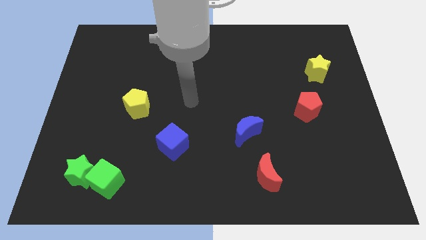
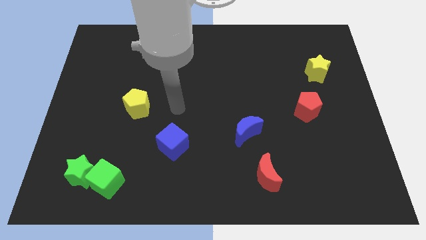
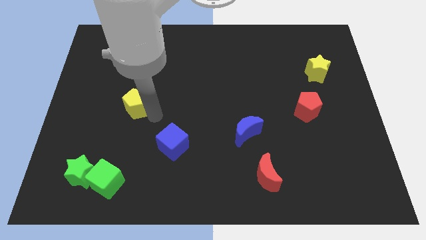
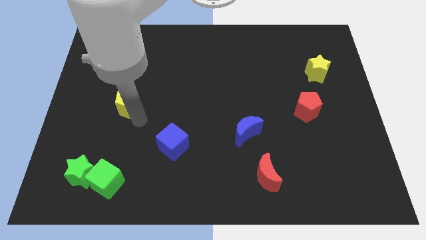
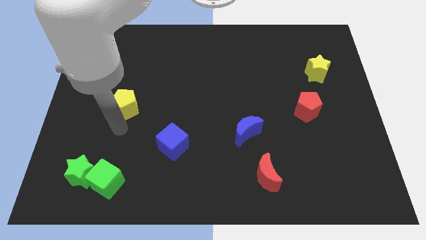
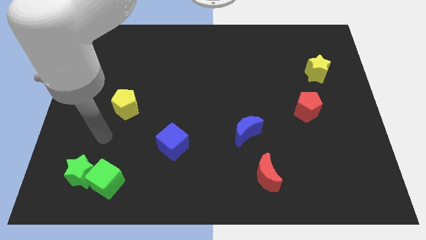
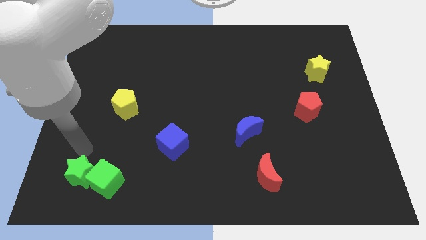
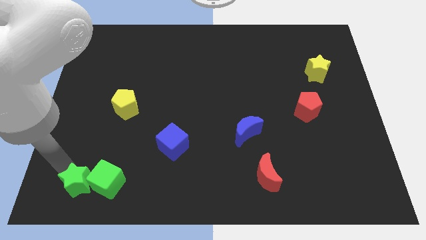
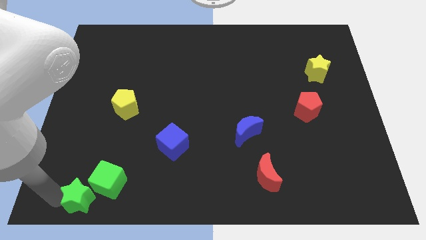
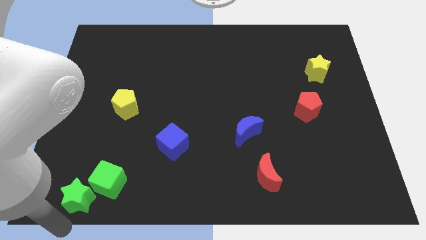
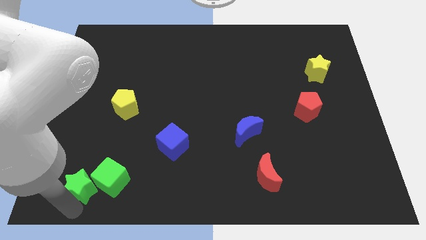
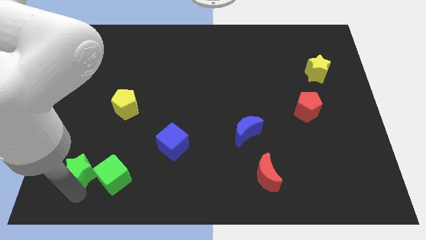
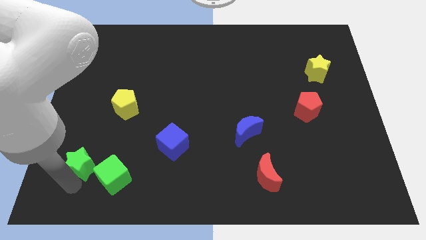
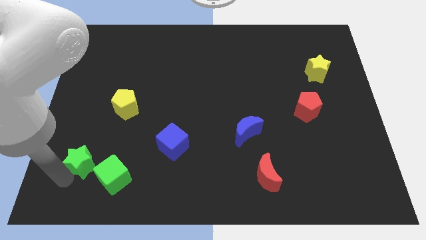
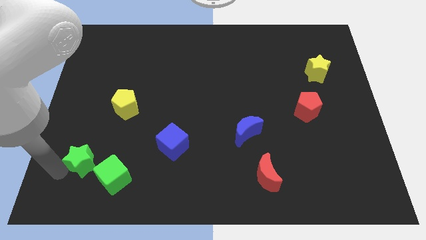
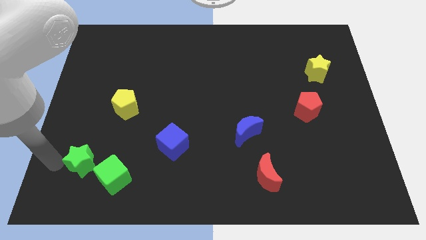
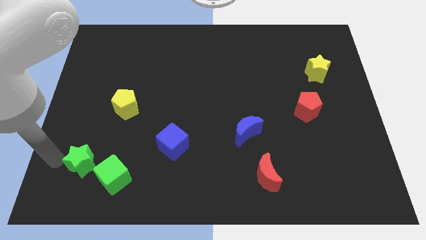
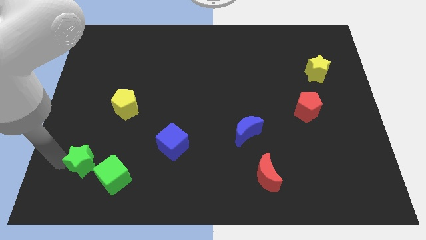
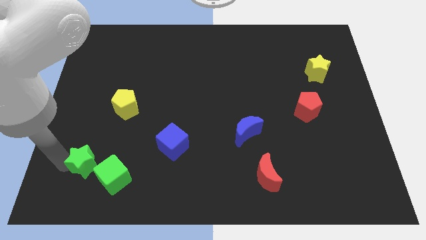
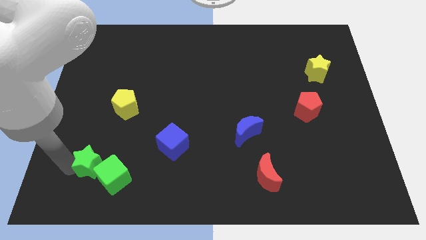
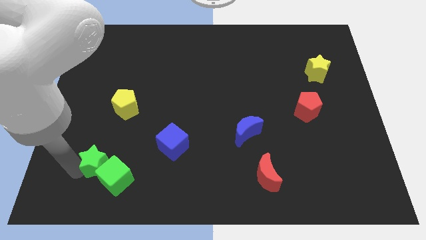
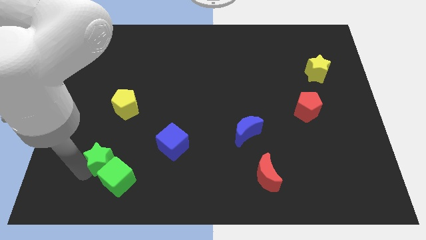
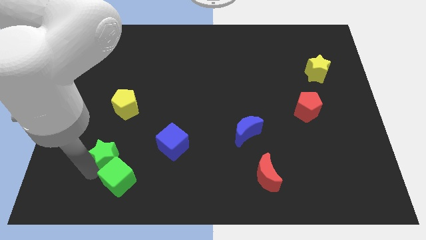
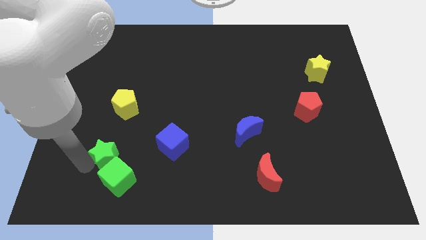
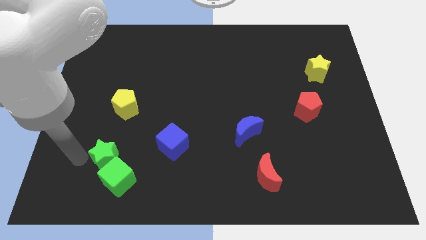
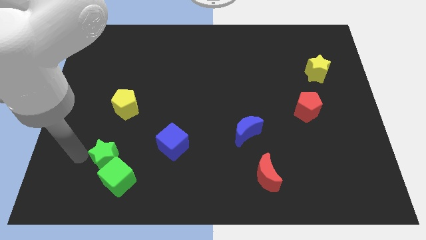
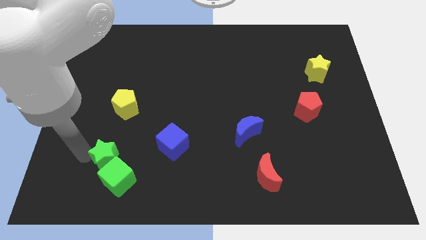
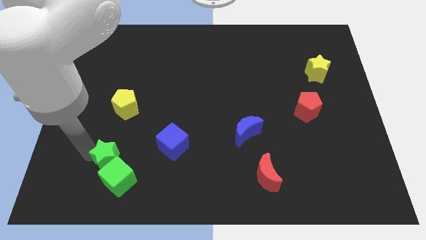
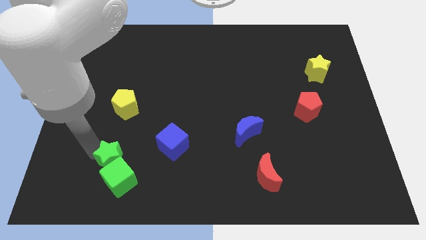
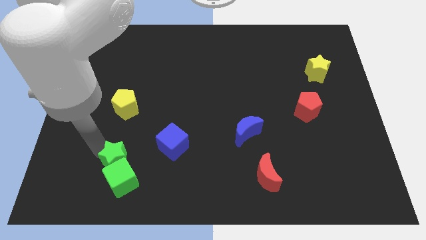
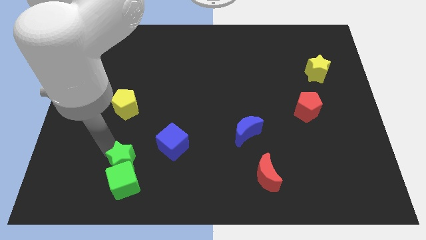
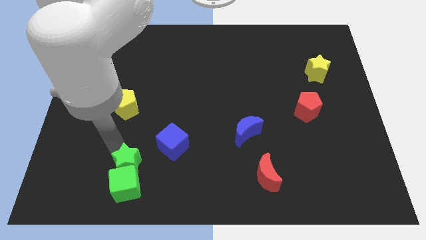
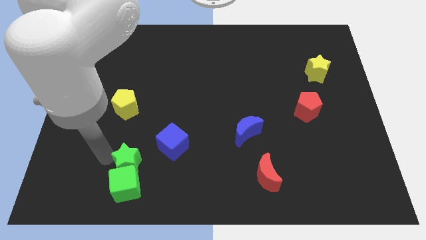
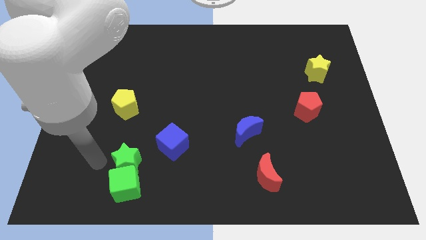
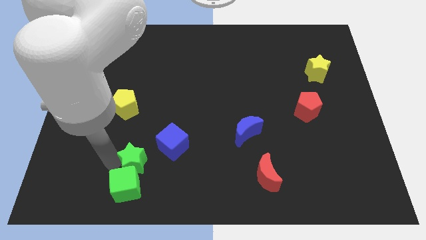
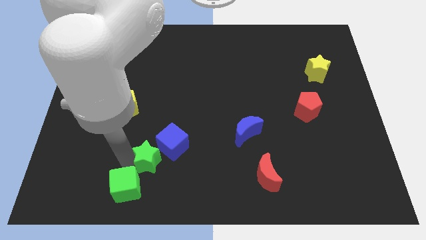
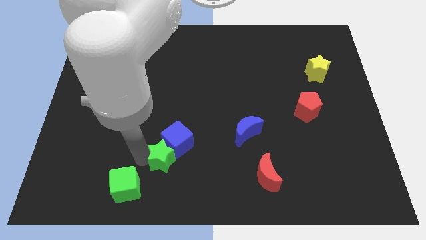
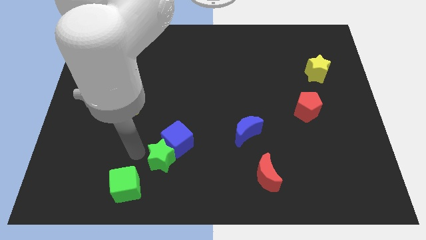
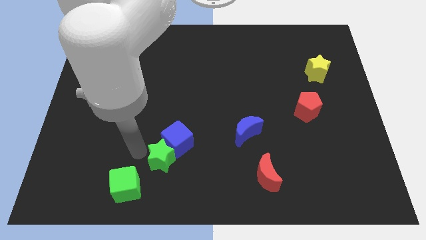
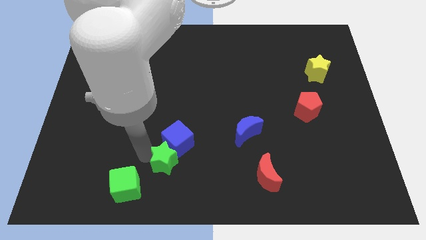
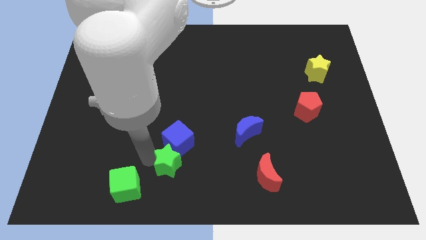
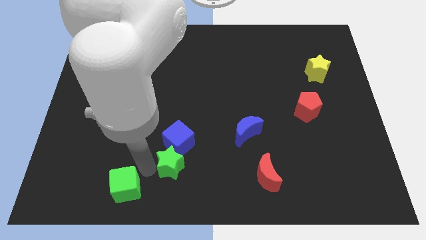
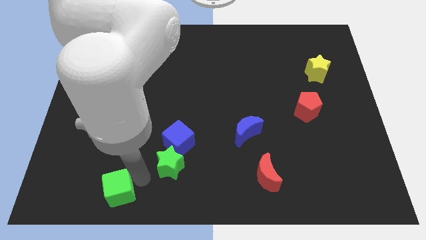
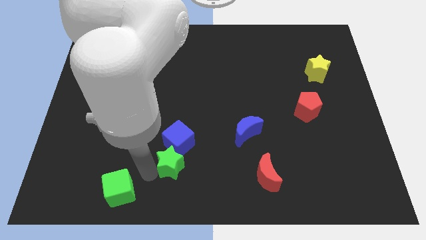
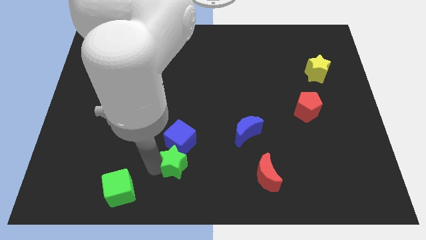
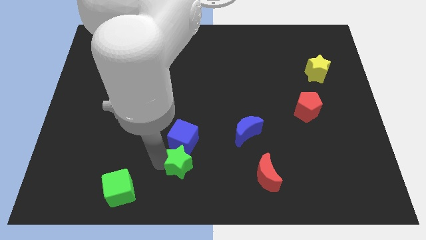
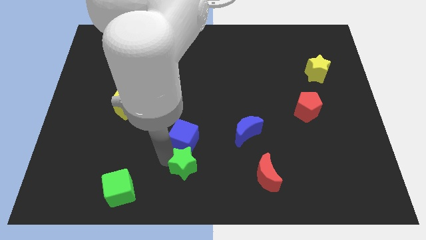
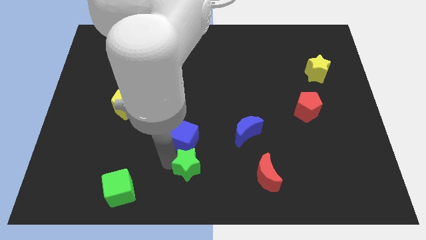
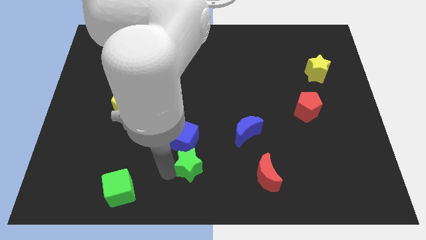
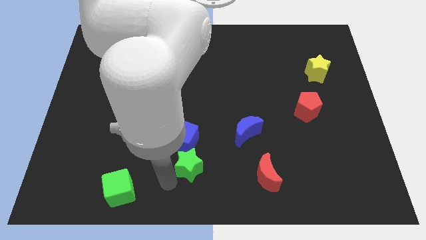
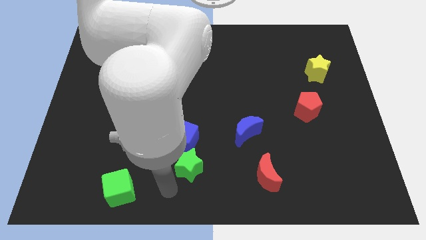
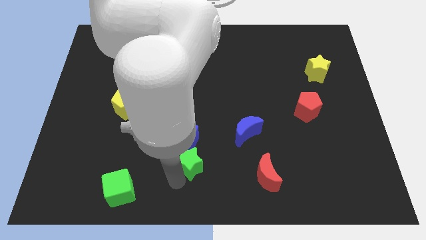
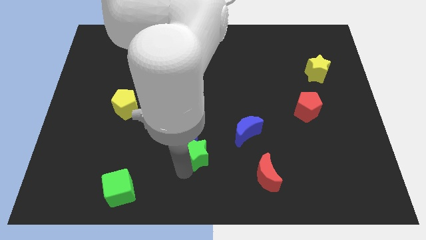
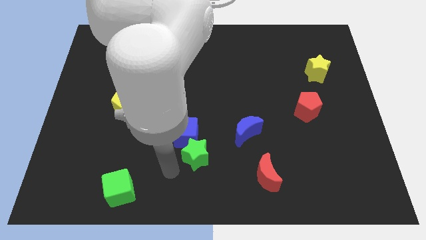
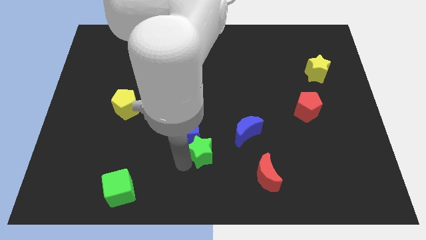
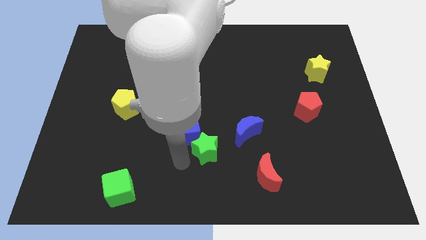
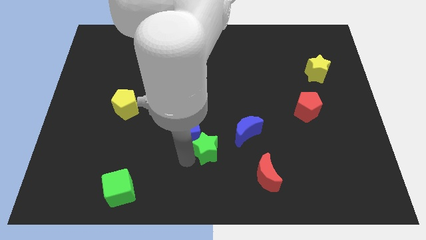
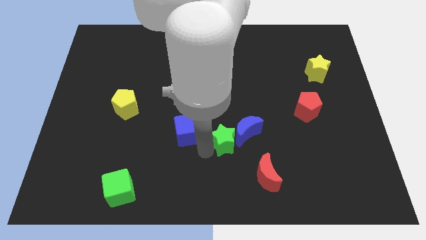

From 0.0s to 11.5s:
move the green star next to the blue moon

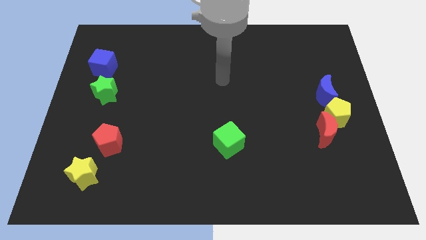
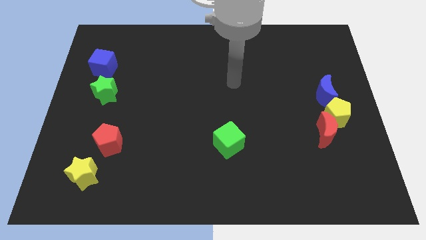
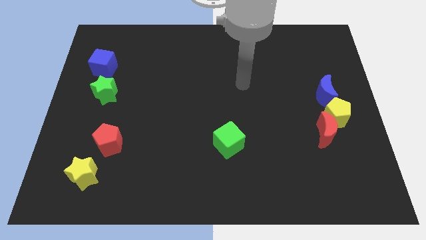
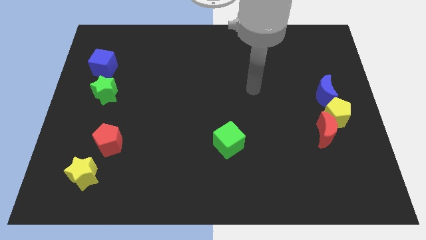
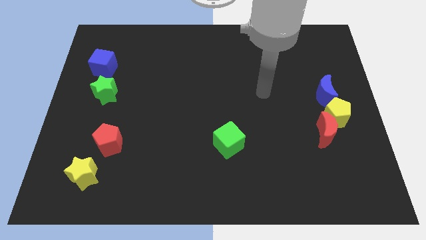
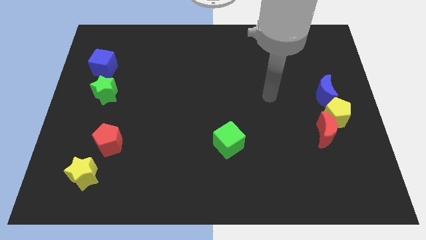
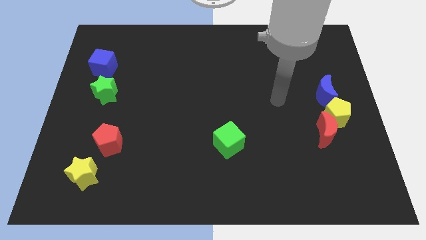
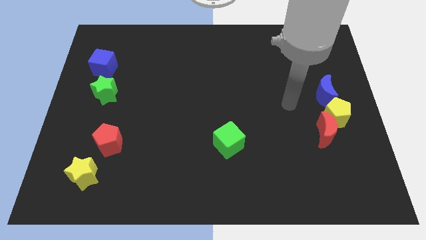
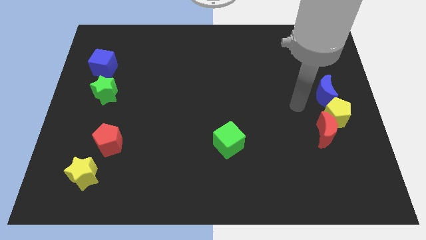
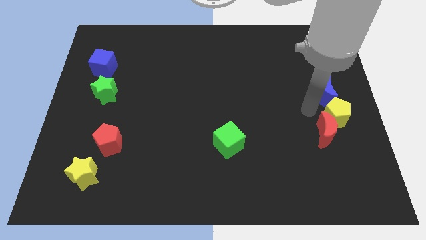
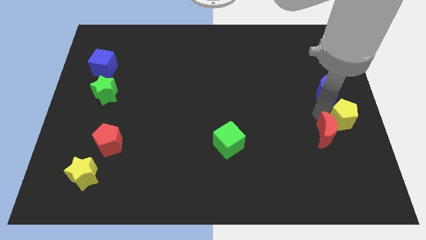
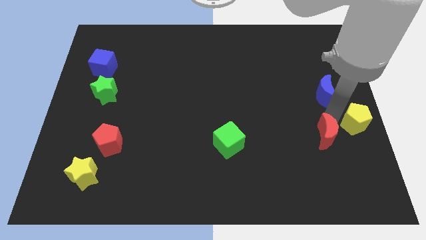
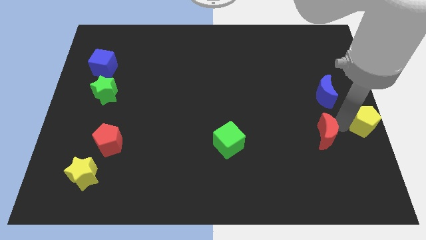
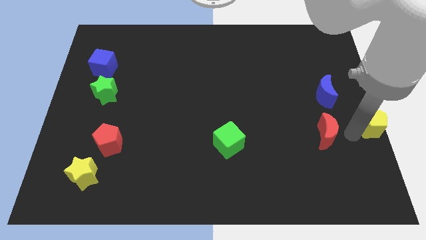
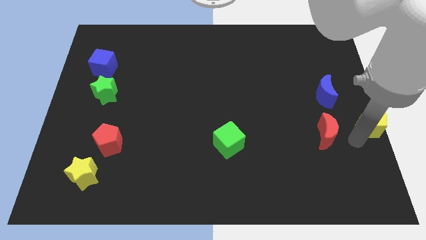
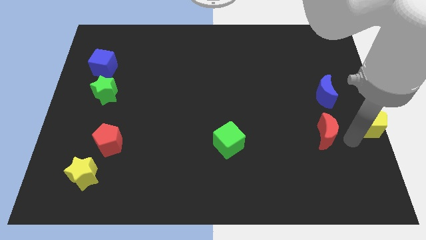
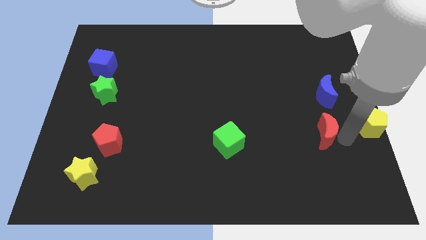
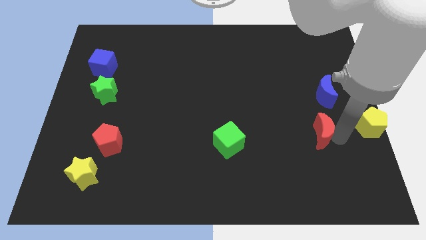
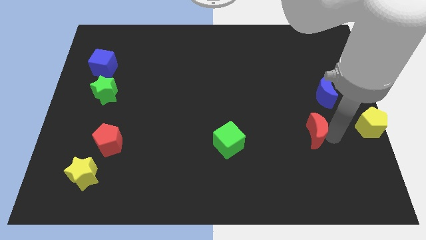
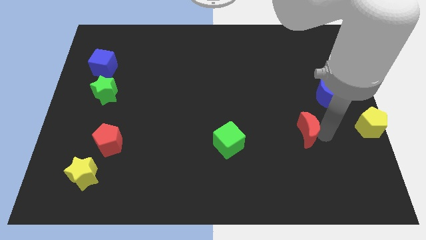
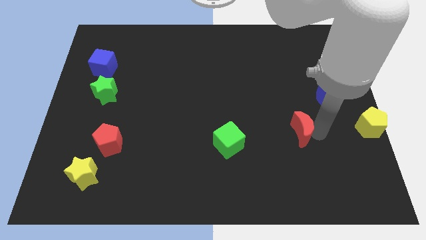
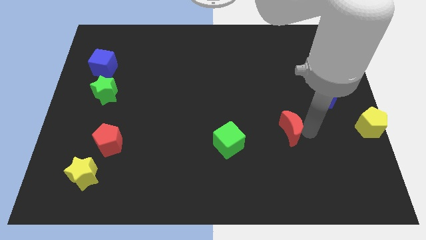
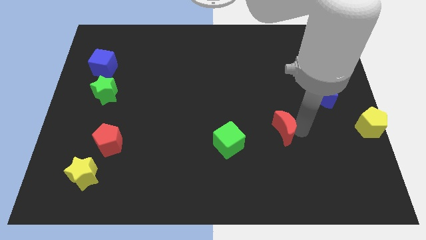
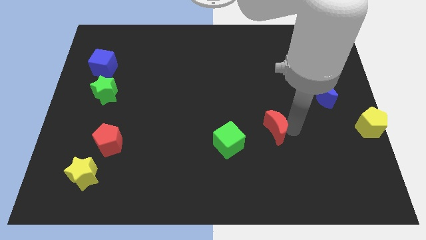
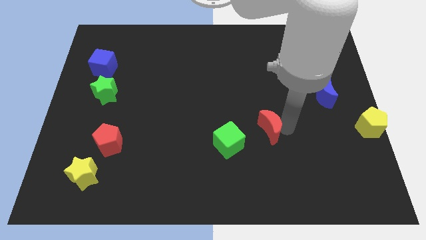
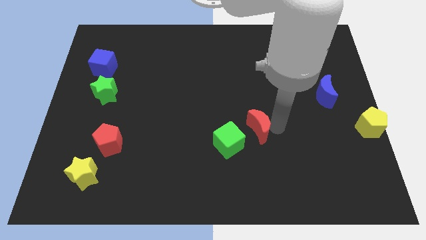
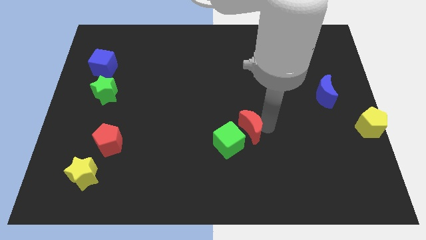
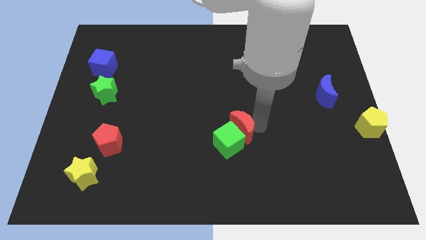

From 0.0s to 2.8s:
push the red moon next to the green cube
